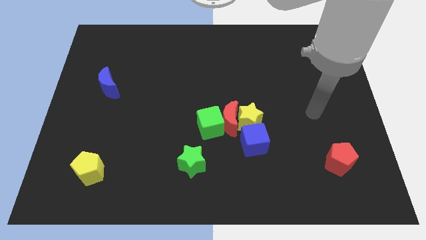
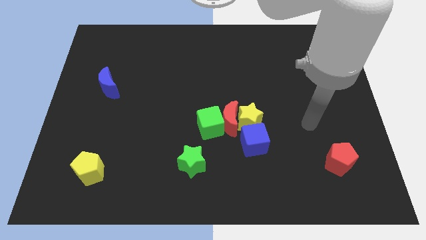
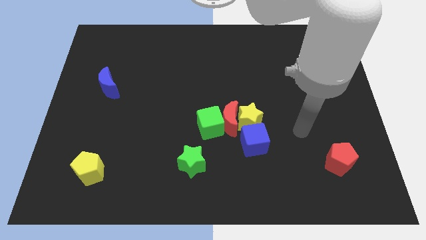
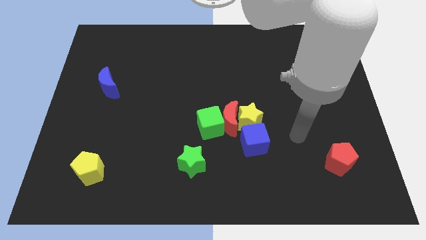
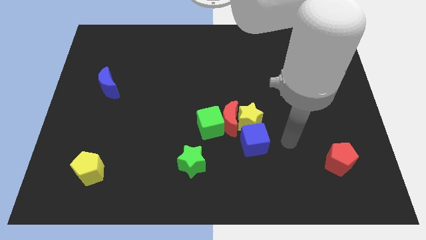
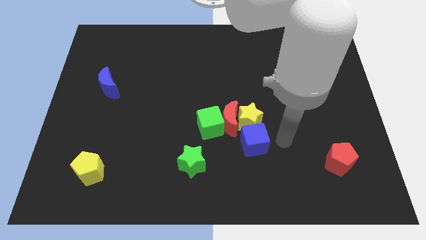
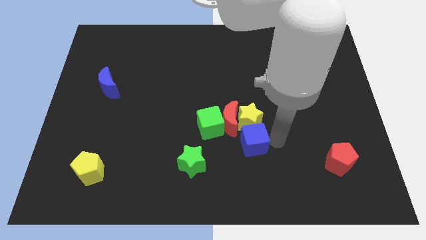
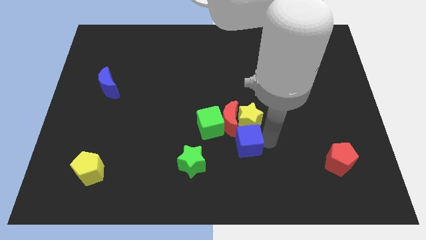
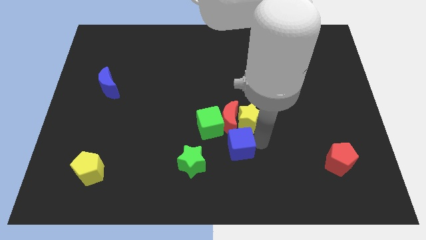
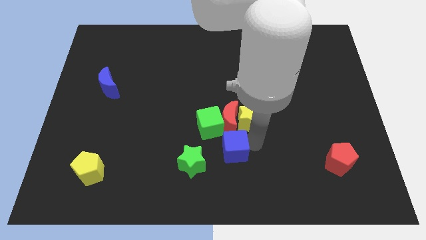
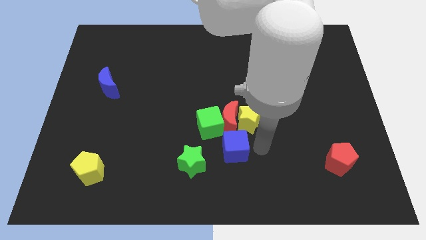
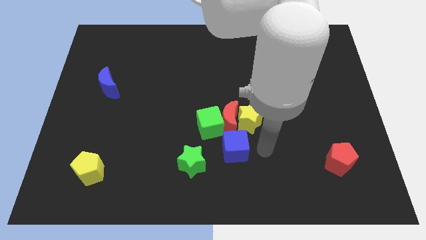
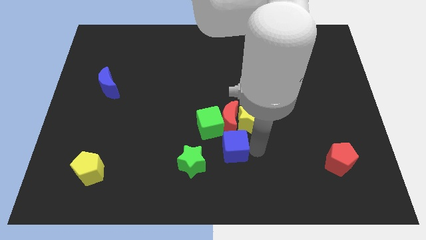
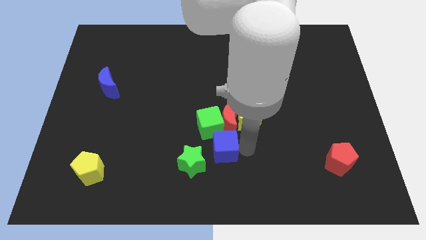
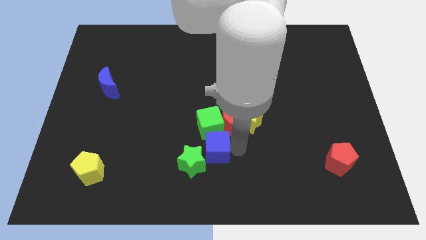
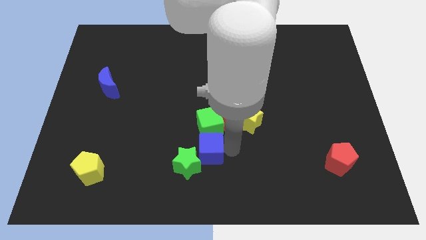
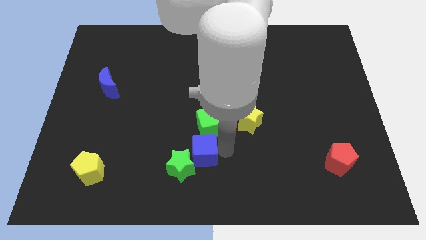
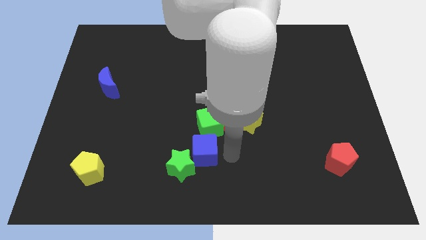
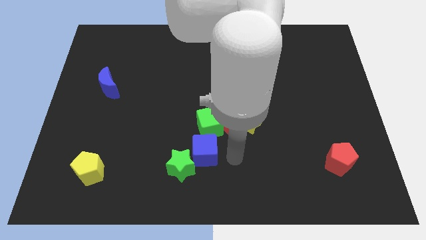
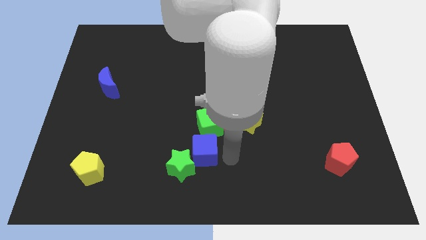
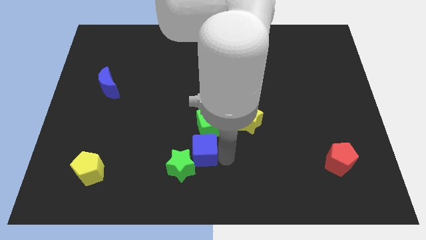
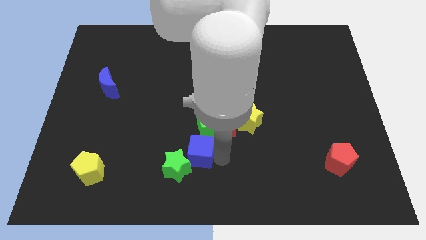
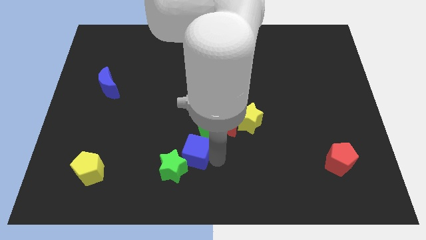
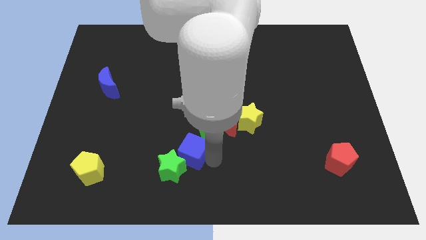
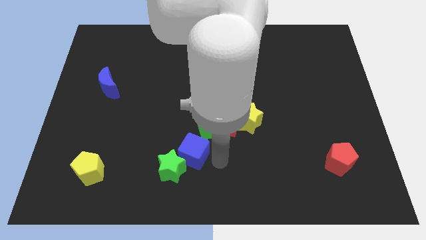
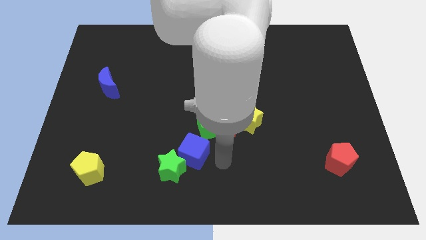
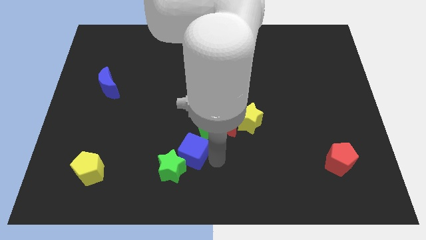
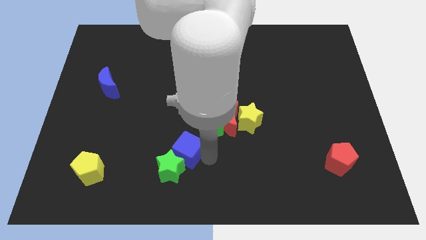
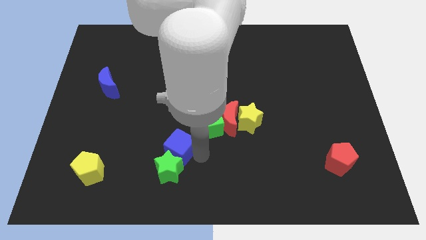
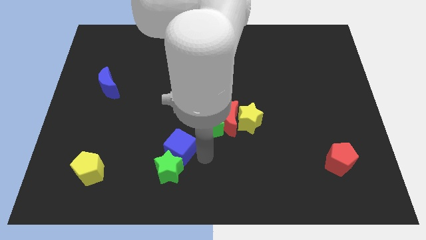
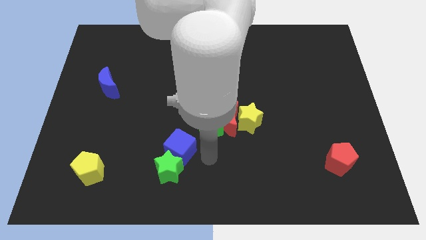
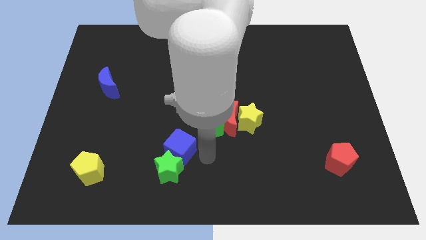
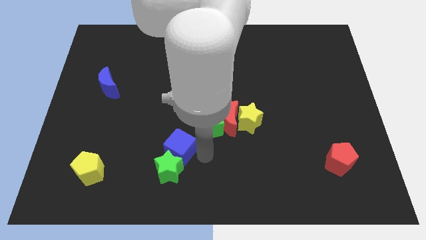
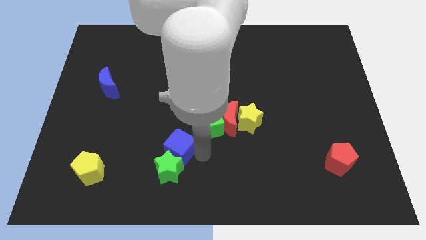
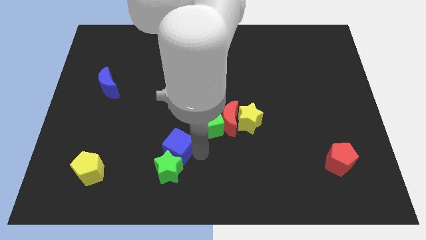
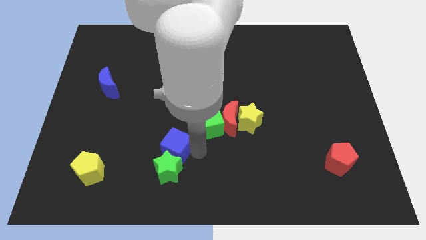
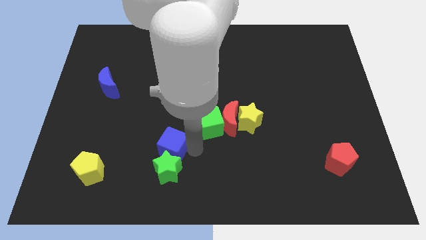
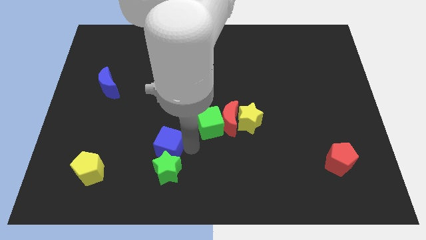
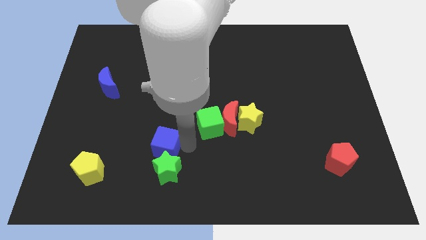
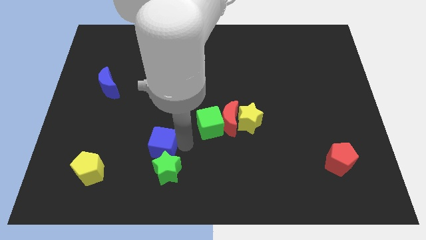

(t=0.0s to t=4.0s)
slide the blue cube left

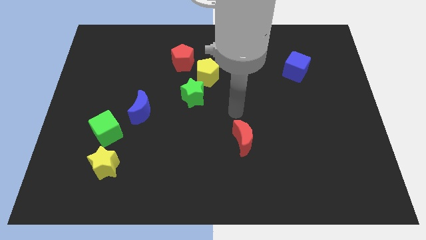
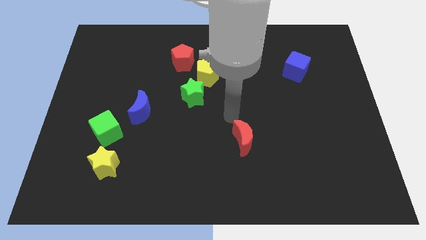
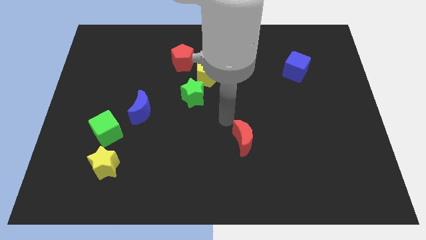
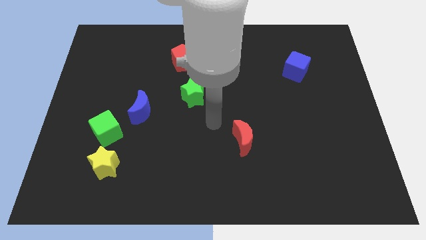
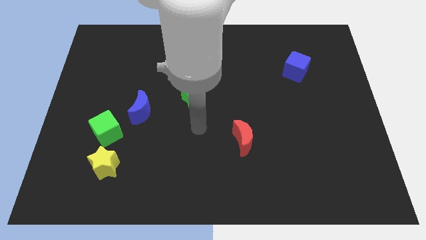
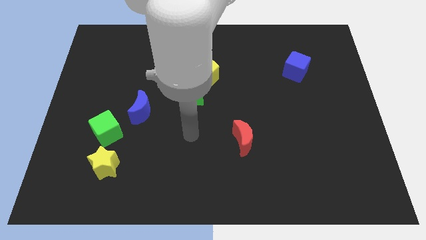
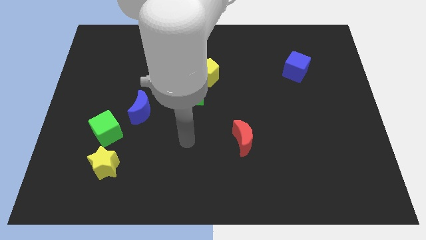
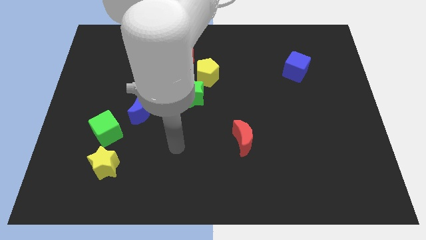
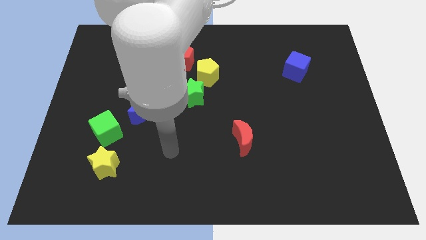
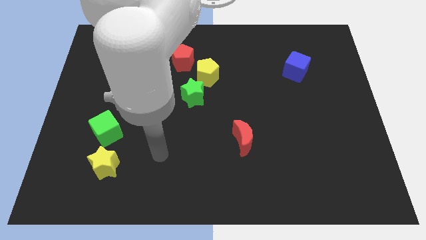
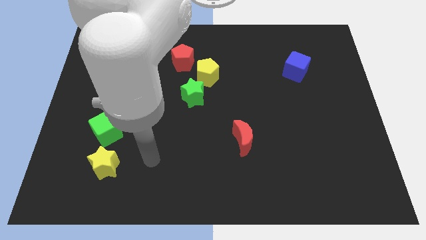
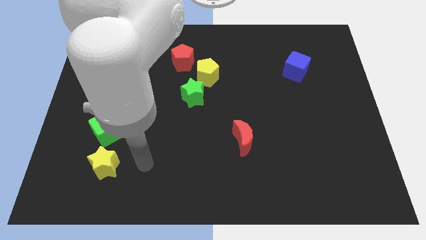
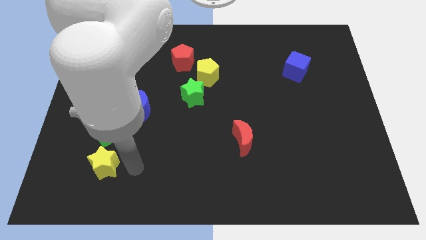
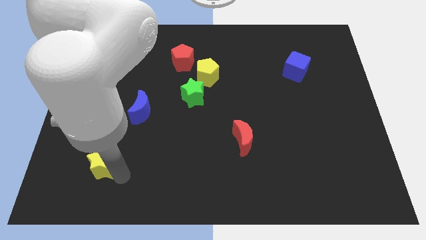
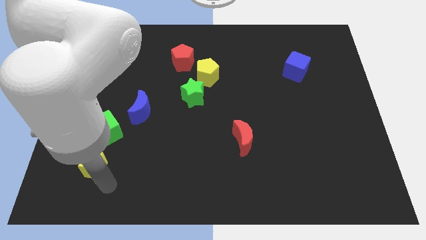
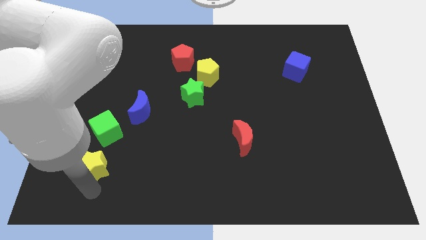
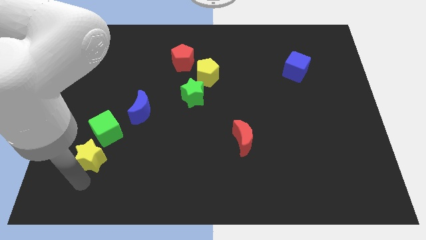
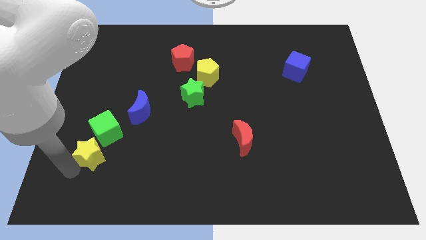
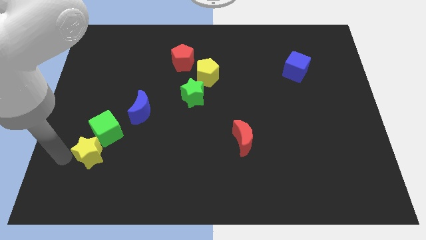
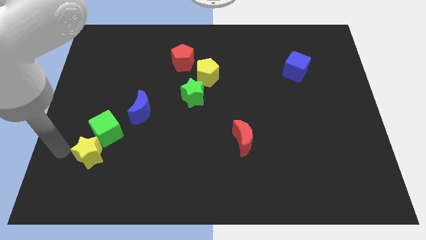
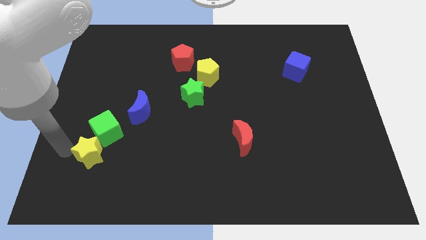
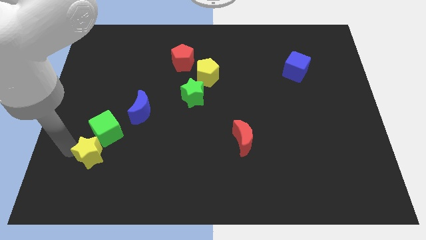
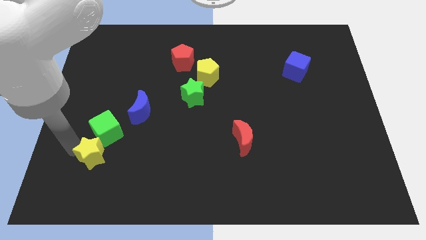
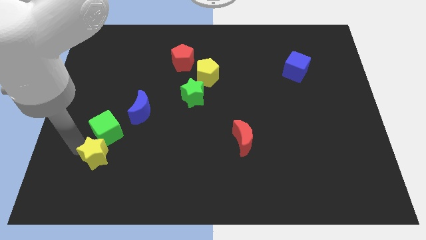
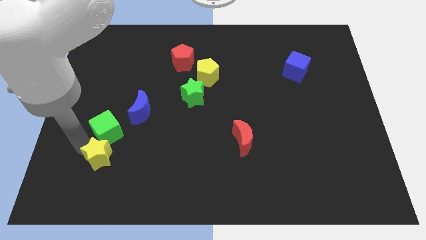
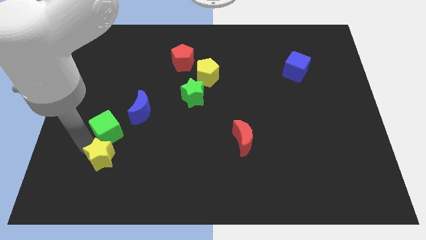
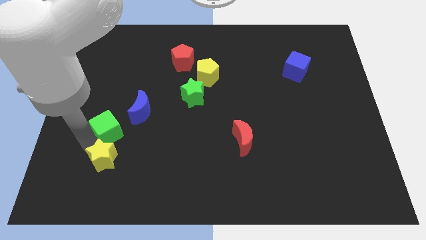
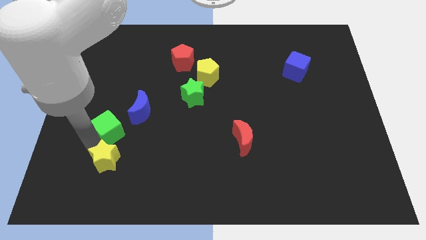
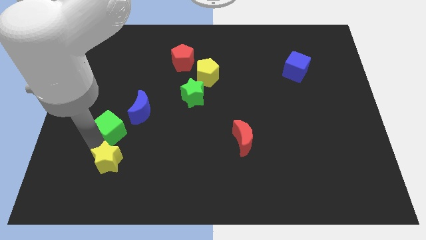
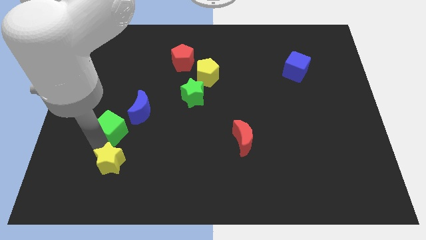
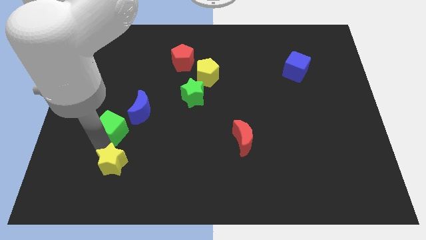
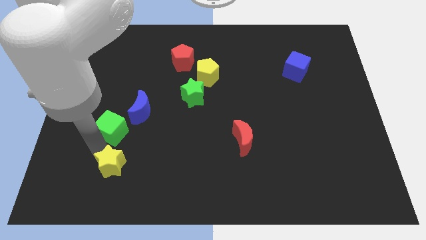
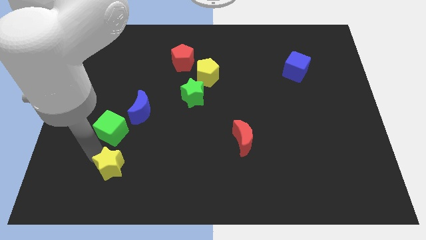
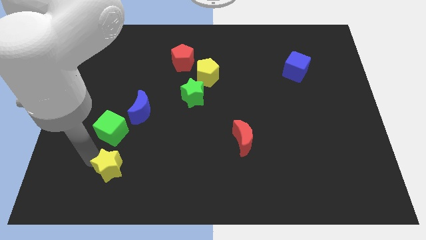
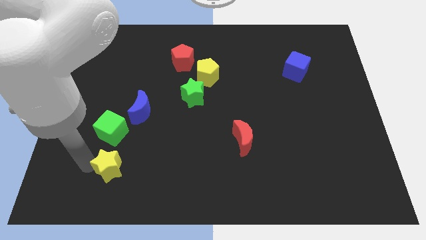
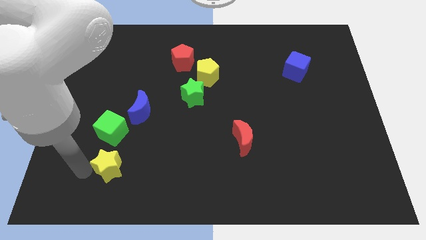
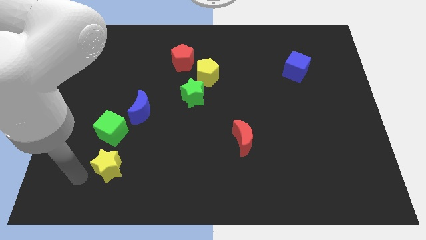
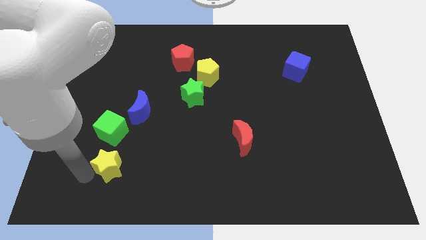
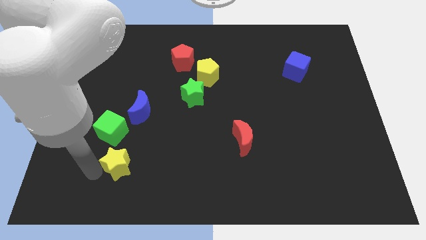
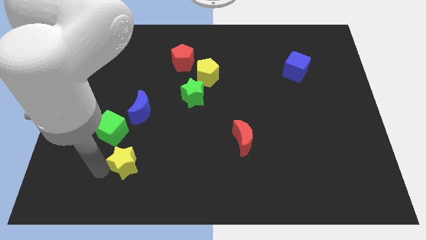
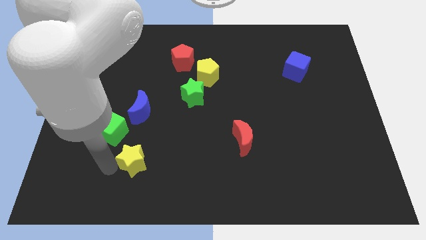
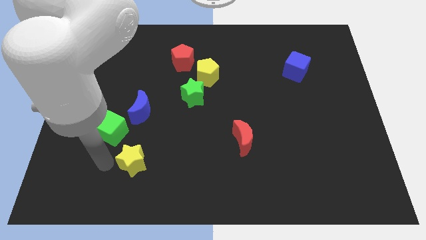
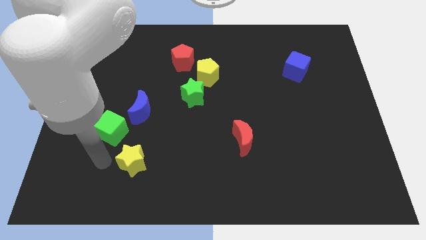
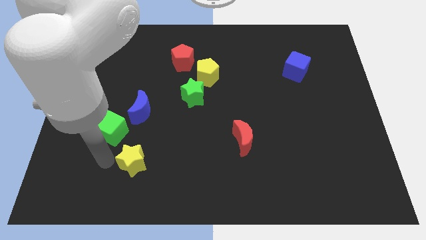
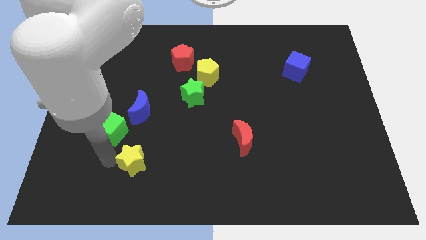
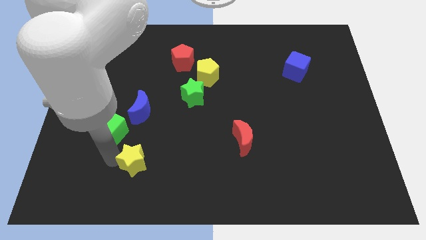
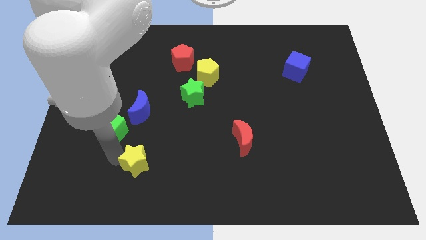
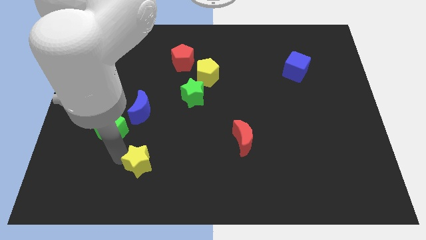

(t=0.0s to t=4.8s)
slightly push the yellow star right
